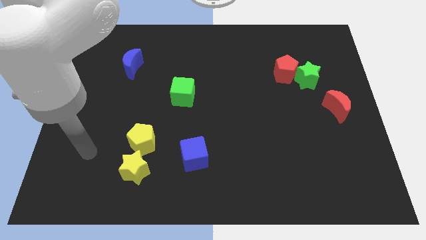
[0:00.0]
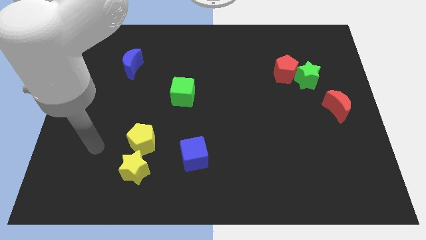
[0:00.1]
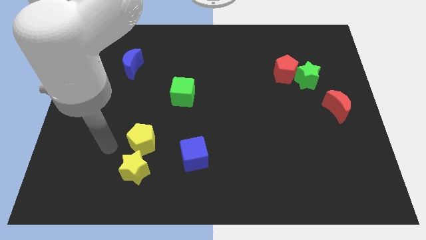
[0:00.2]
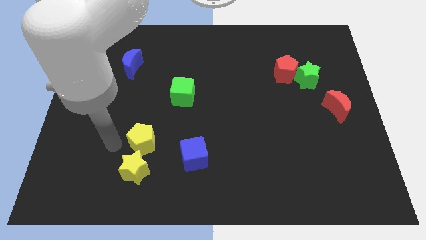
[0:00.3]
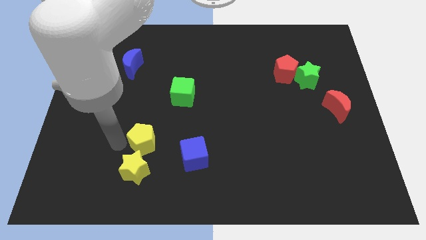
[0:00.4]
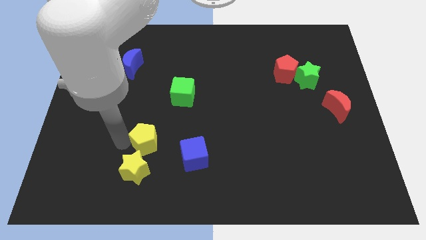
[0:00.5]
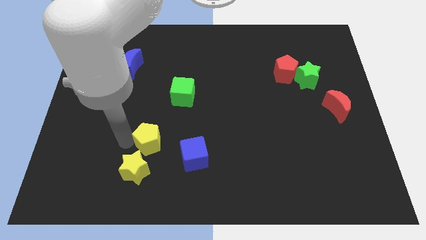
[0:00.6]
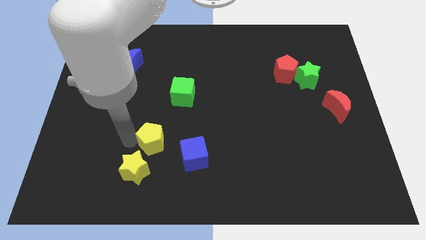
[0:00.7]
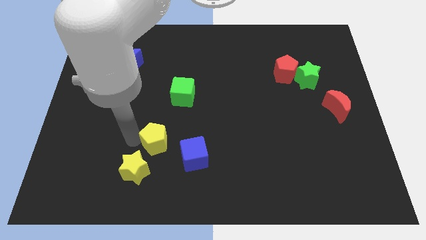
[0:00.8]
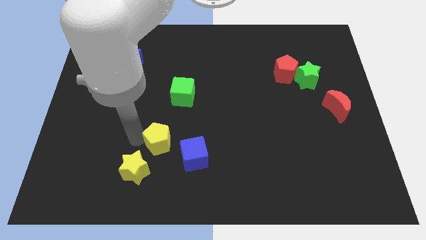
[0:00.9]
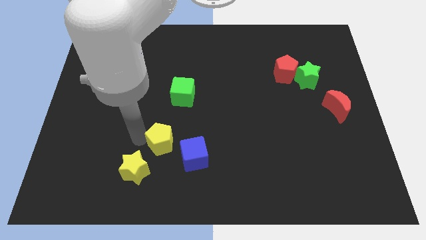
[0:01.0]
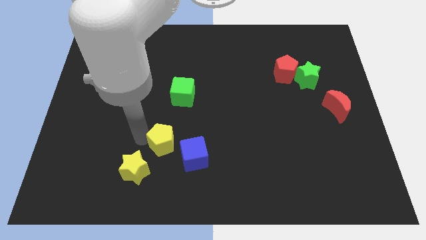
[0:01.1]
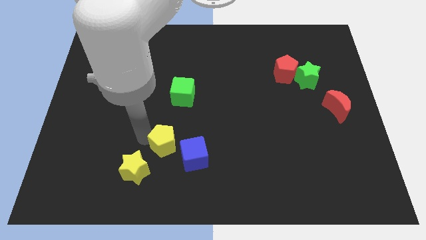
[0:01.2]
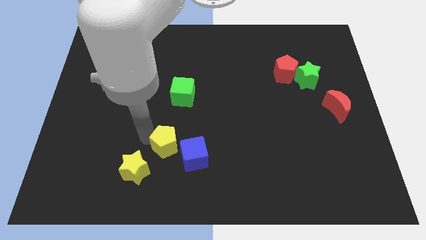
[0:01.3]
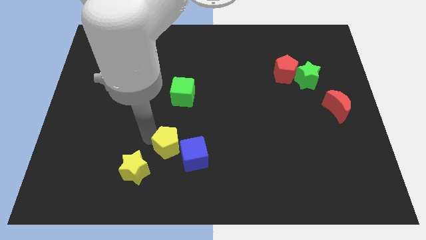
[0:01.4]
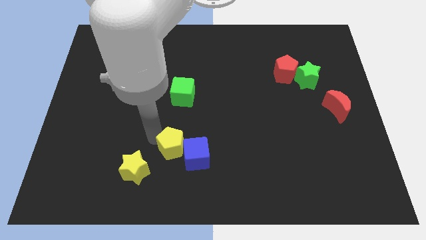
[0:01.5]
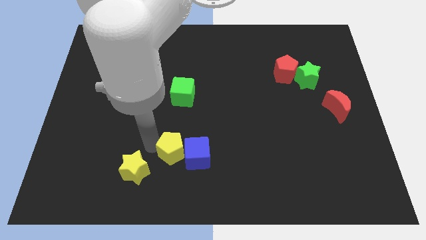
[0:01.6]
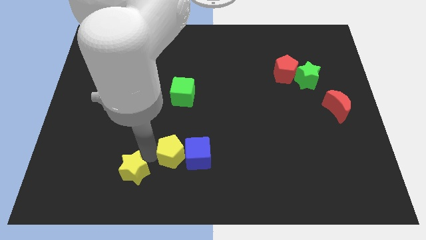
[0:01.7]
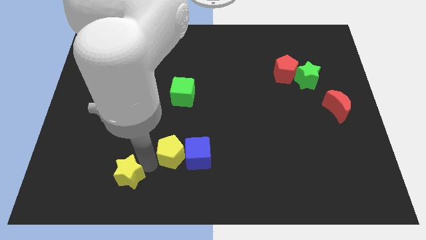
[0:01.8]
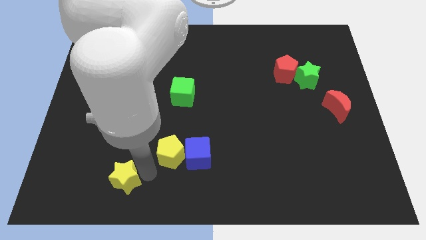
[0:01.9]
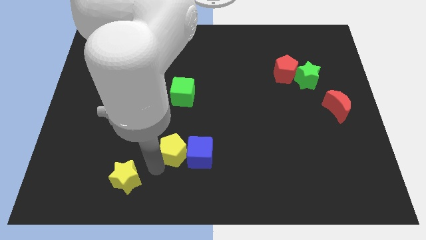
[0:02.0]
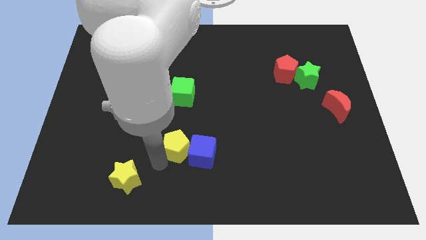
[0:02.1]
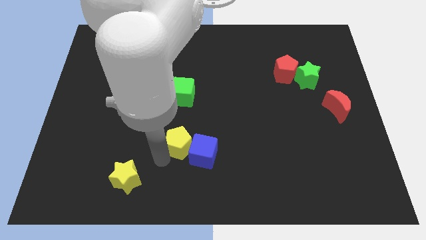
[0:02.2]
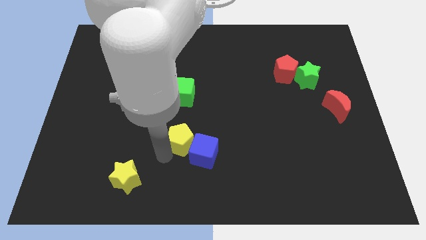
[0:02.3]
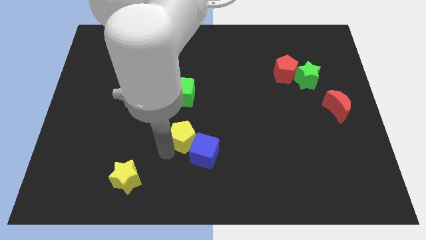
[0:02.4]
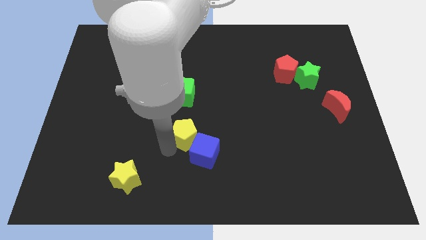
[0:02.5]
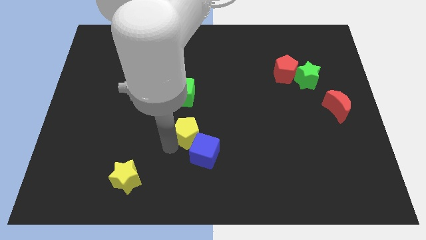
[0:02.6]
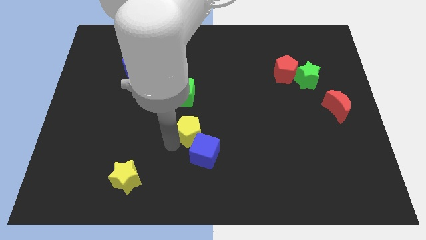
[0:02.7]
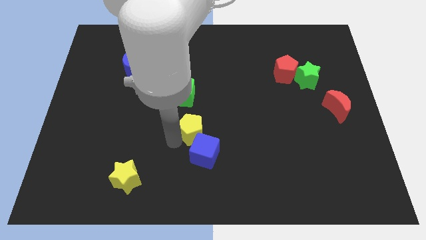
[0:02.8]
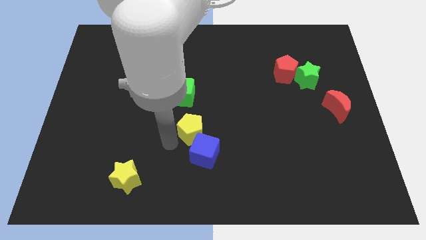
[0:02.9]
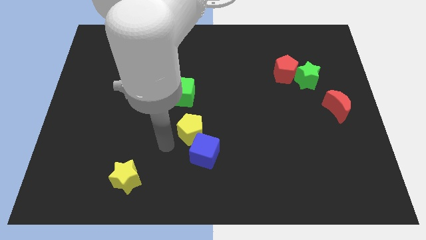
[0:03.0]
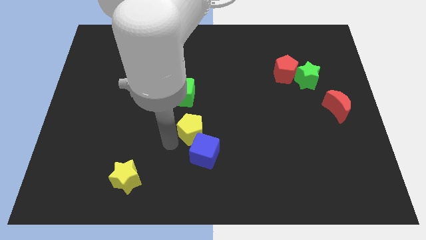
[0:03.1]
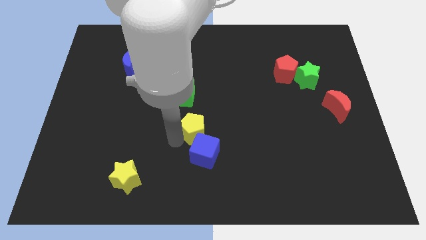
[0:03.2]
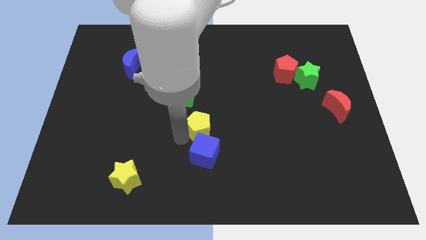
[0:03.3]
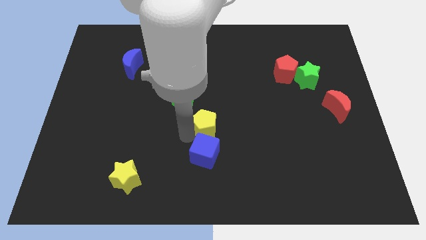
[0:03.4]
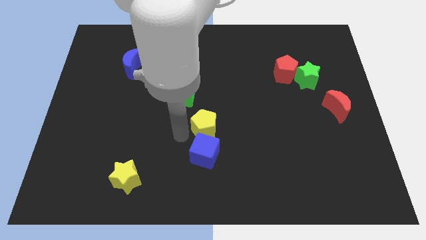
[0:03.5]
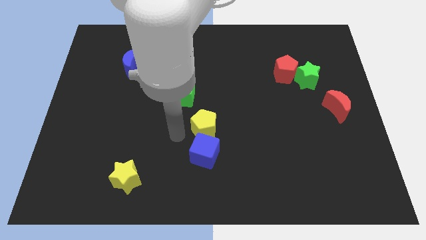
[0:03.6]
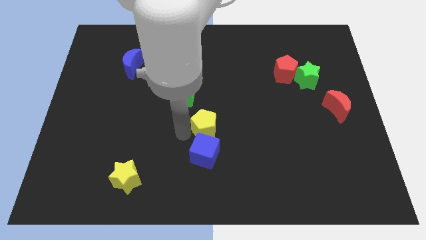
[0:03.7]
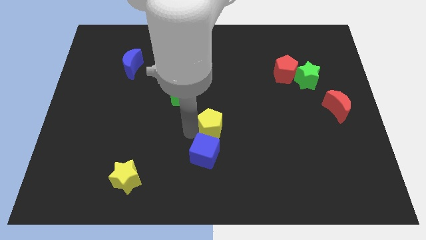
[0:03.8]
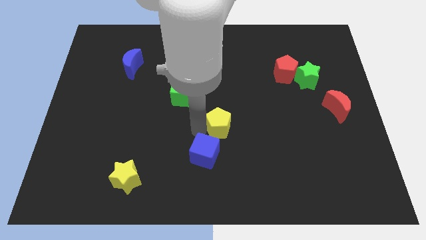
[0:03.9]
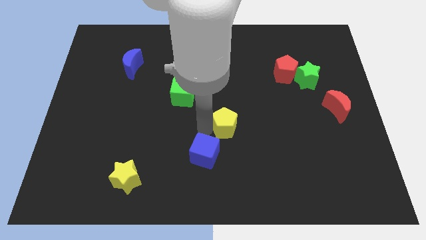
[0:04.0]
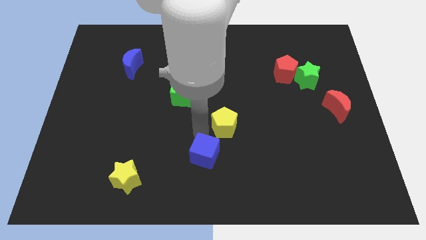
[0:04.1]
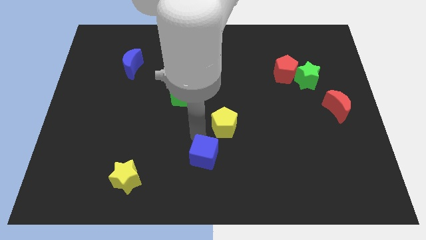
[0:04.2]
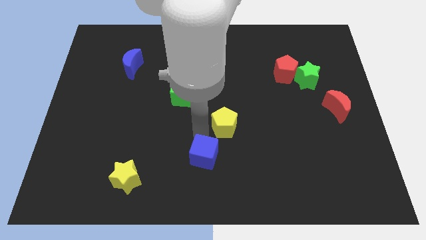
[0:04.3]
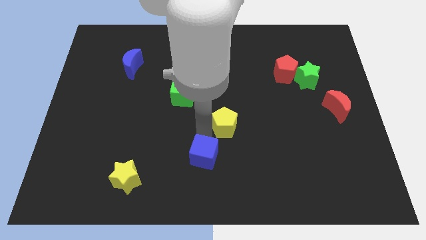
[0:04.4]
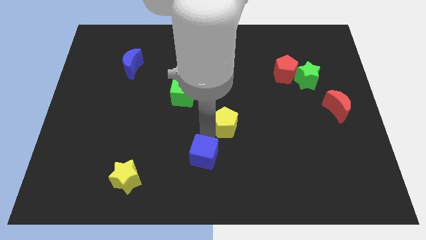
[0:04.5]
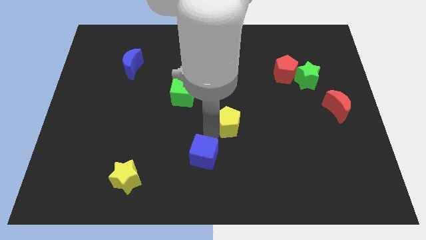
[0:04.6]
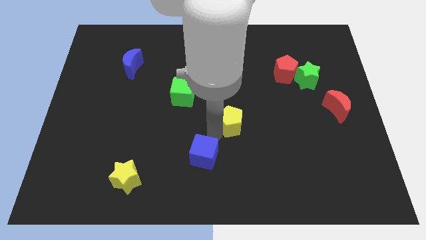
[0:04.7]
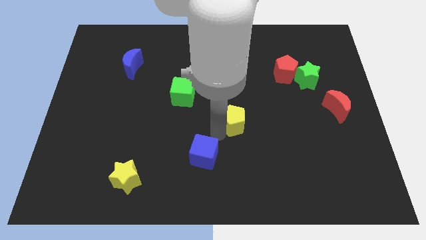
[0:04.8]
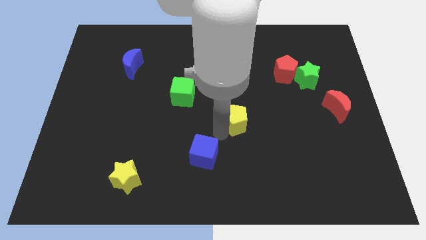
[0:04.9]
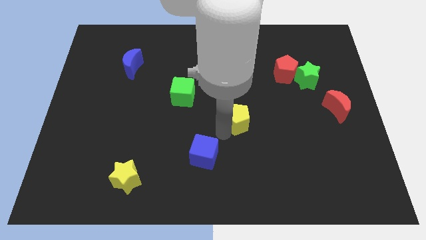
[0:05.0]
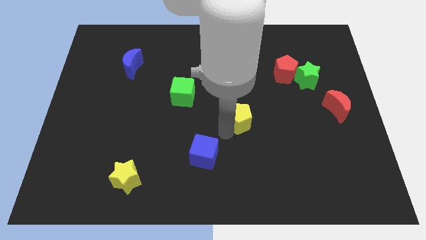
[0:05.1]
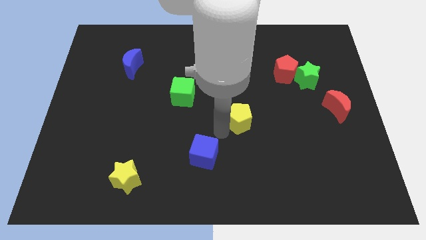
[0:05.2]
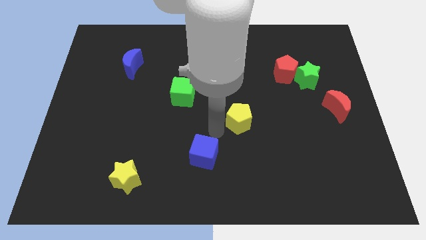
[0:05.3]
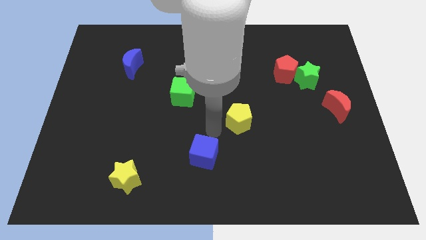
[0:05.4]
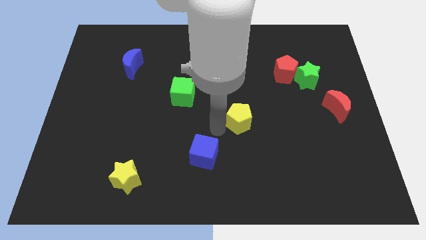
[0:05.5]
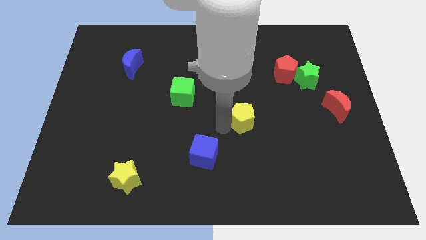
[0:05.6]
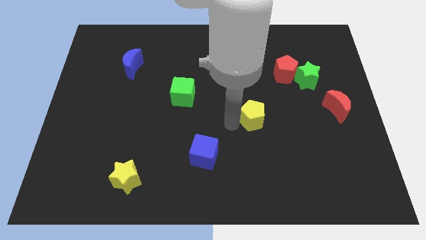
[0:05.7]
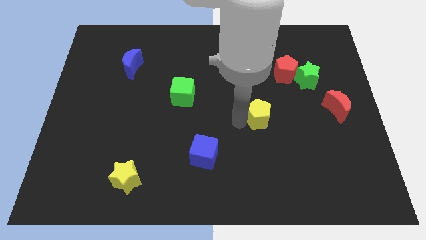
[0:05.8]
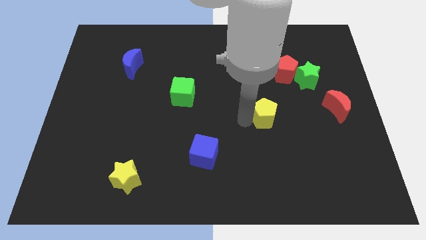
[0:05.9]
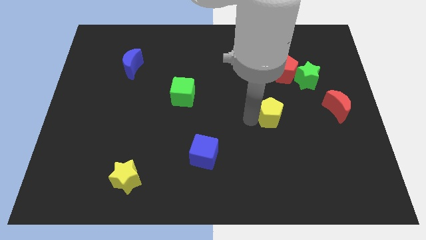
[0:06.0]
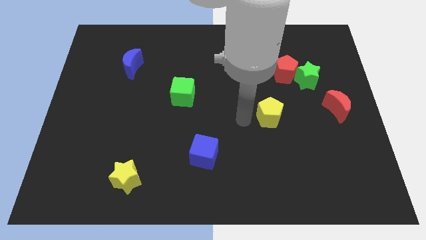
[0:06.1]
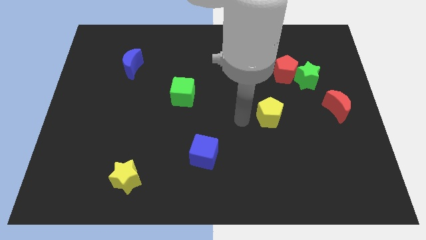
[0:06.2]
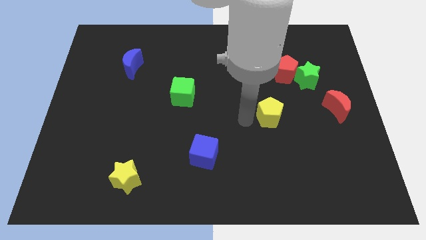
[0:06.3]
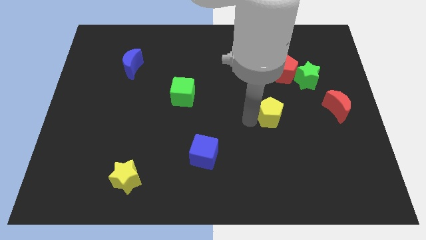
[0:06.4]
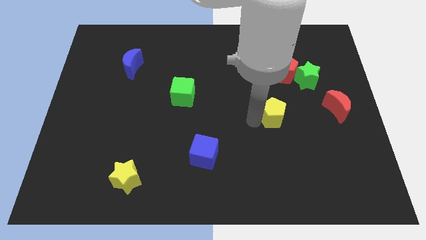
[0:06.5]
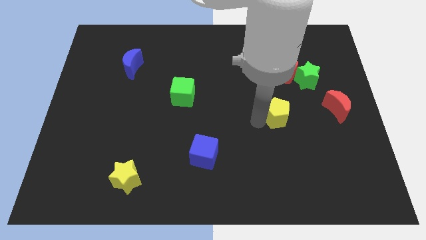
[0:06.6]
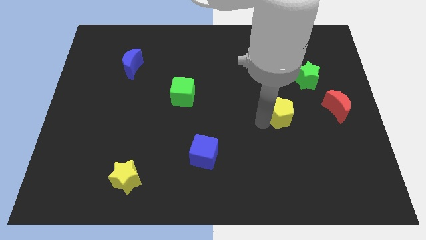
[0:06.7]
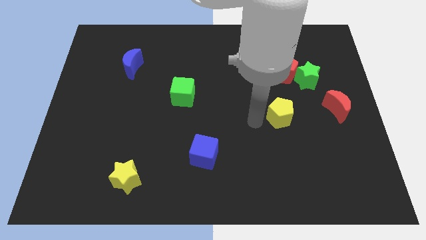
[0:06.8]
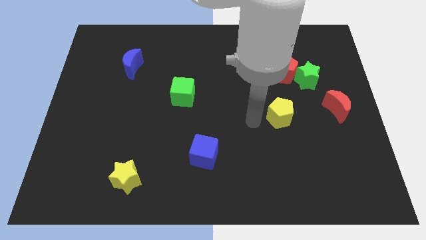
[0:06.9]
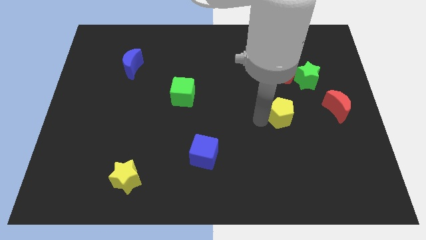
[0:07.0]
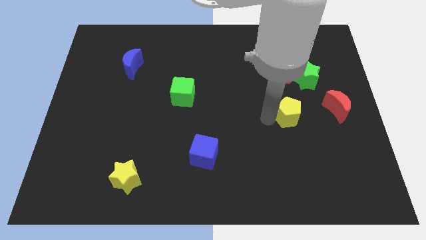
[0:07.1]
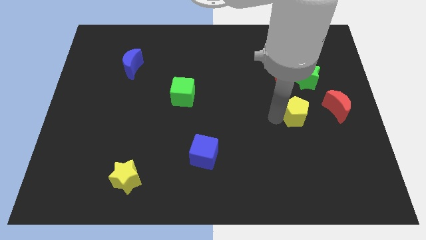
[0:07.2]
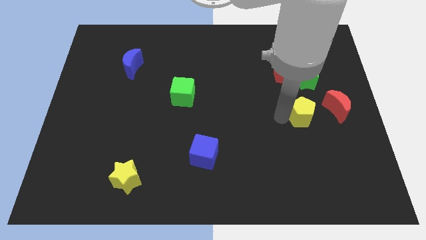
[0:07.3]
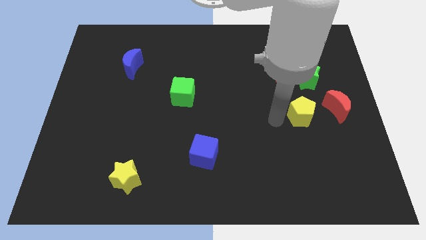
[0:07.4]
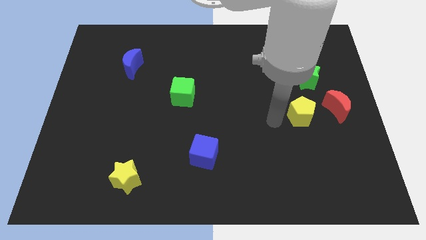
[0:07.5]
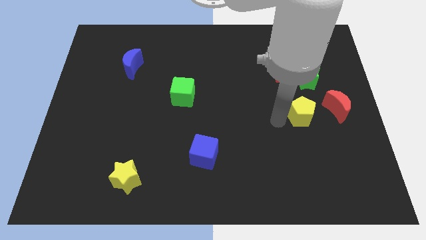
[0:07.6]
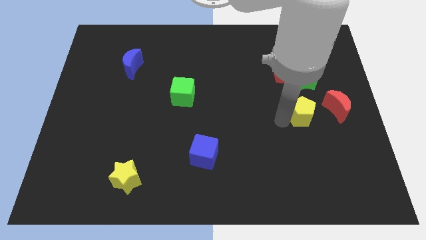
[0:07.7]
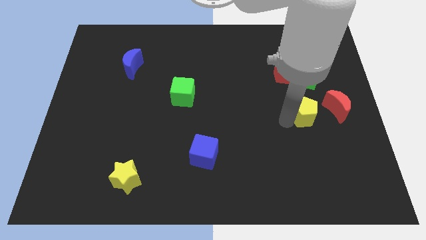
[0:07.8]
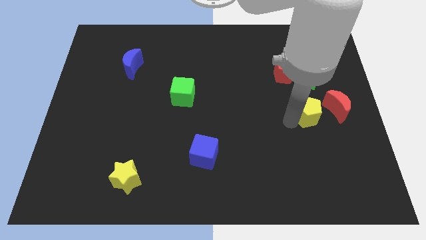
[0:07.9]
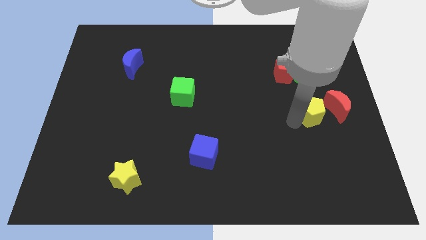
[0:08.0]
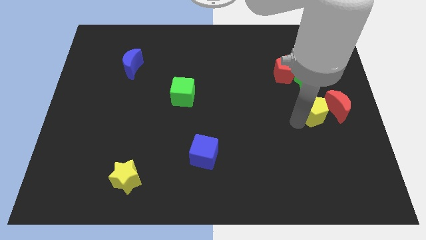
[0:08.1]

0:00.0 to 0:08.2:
slide the yellow pentagon towards the red moon
